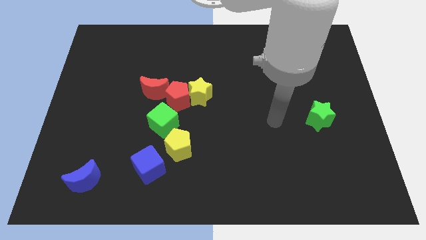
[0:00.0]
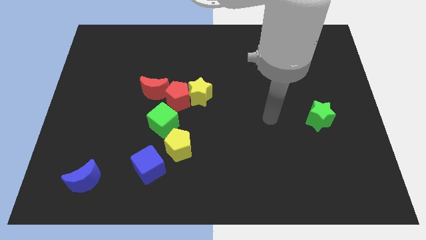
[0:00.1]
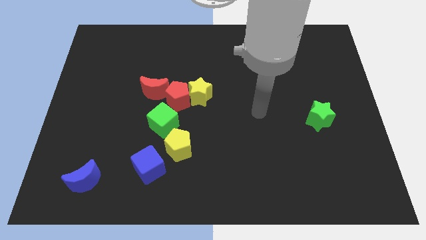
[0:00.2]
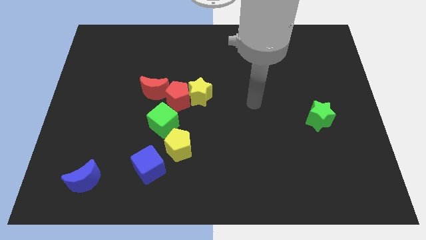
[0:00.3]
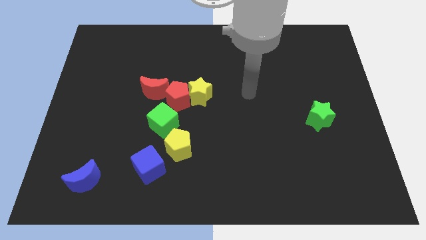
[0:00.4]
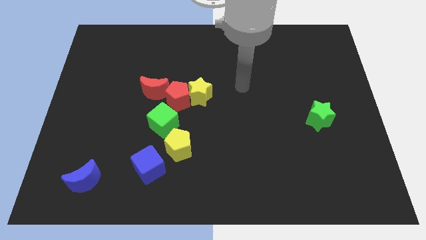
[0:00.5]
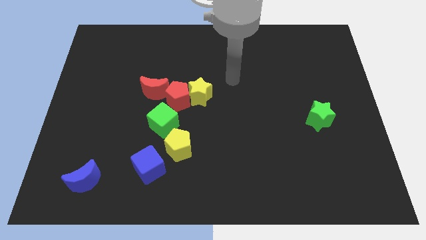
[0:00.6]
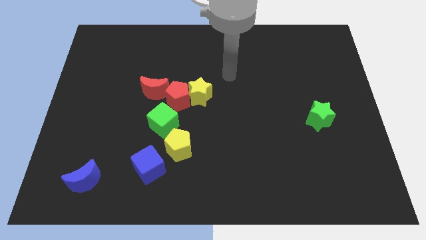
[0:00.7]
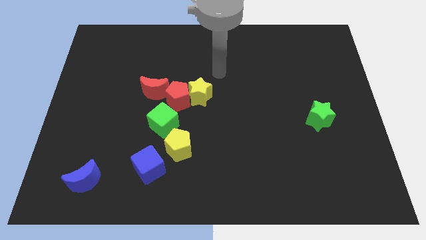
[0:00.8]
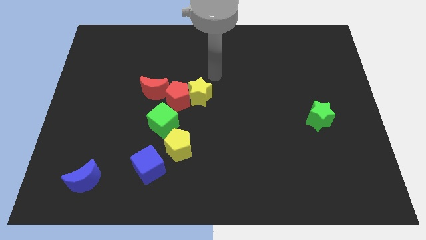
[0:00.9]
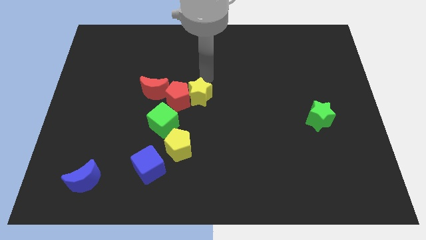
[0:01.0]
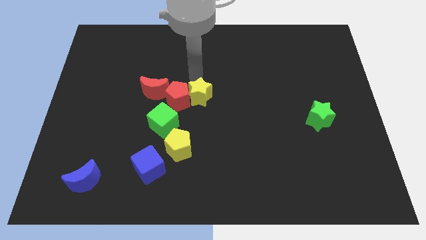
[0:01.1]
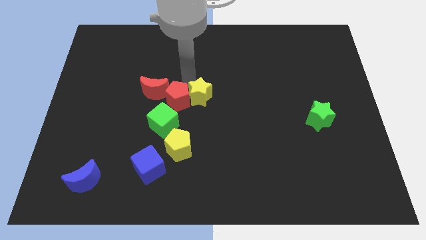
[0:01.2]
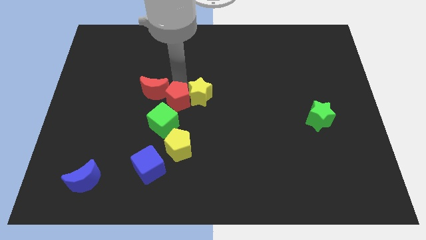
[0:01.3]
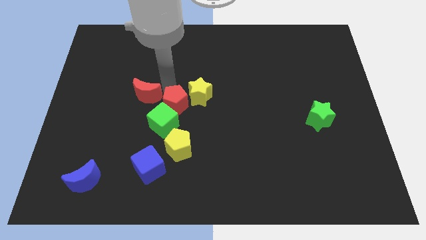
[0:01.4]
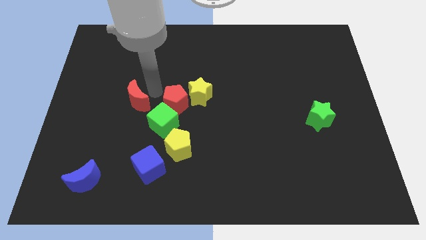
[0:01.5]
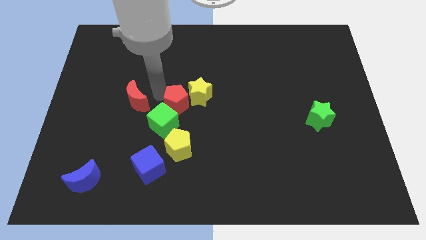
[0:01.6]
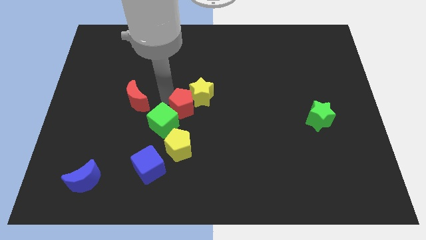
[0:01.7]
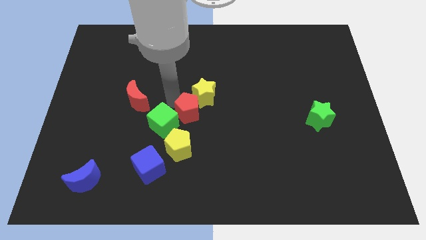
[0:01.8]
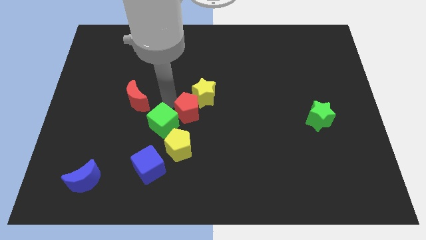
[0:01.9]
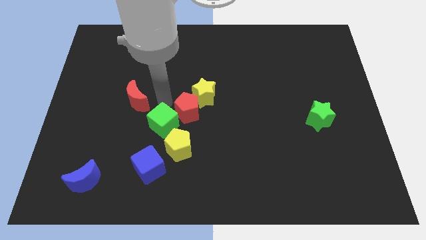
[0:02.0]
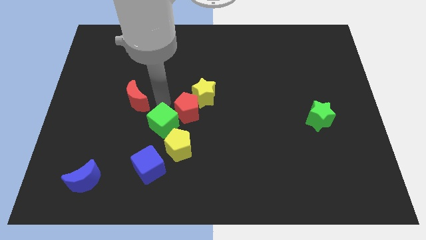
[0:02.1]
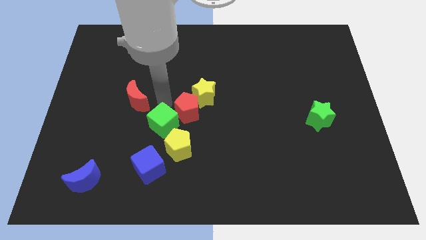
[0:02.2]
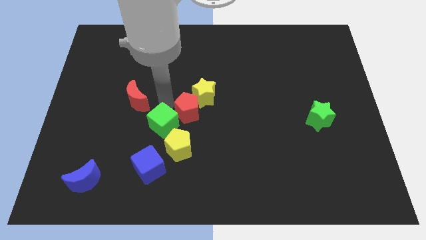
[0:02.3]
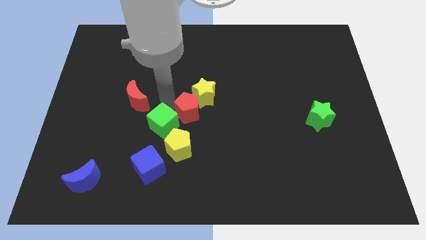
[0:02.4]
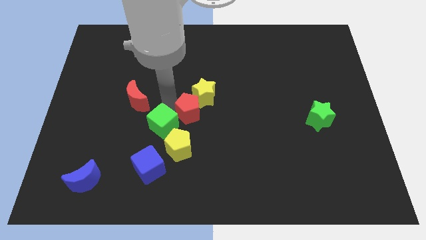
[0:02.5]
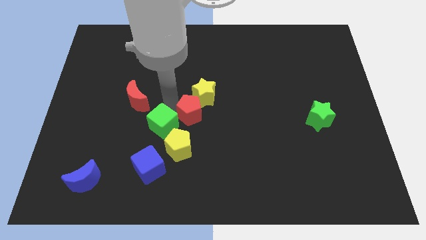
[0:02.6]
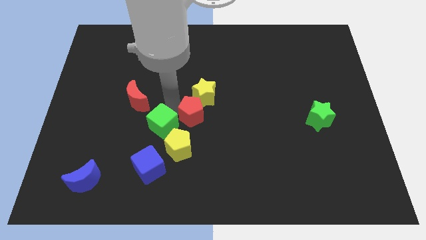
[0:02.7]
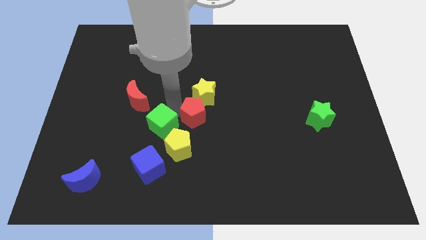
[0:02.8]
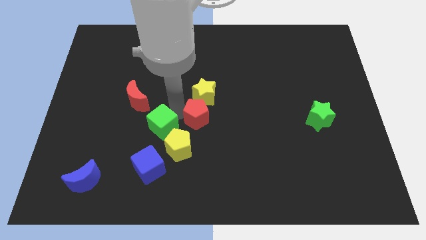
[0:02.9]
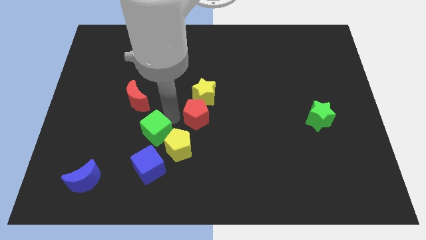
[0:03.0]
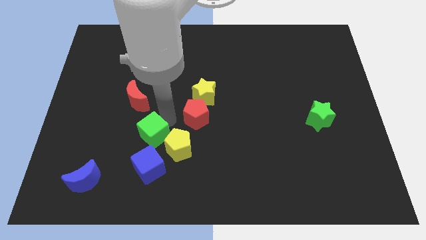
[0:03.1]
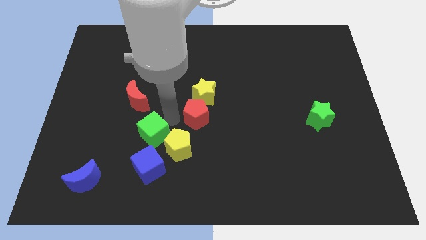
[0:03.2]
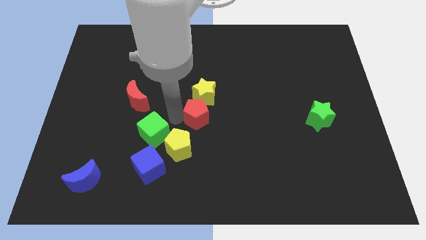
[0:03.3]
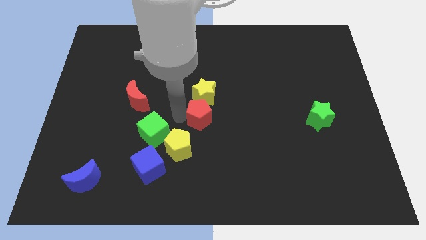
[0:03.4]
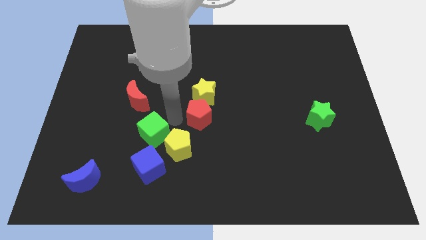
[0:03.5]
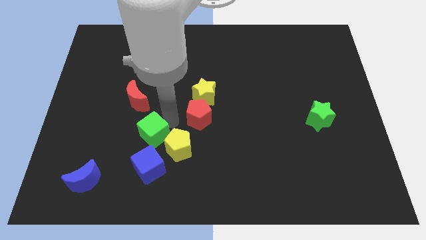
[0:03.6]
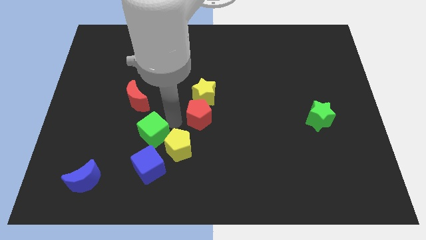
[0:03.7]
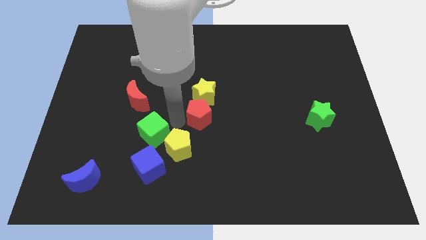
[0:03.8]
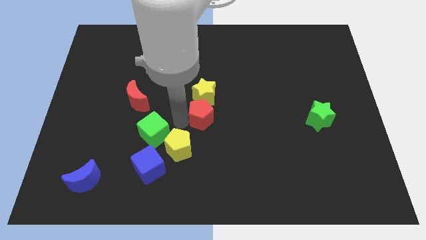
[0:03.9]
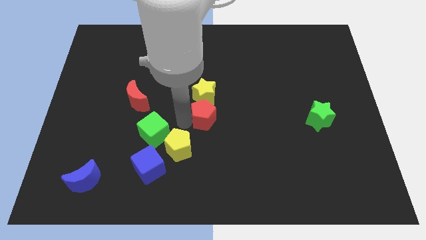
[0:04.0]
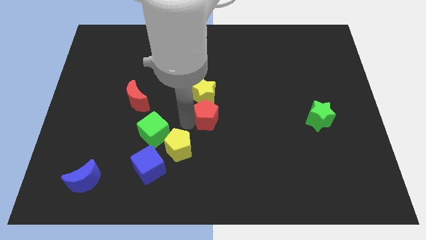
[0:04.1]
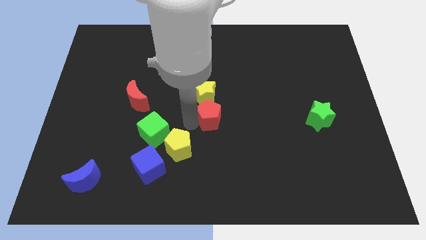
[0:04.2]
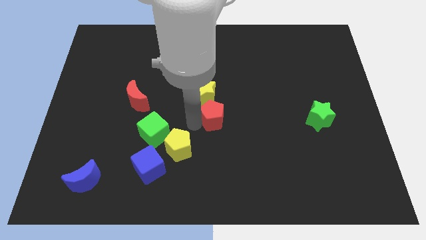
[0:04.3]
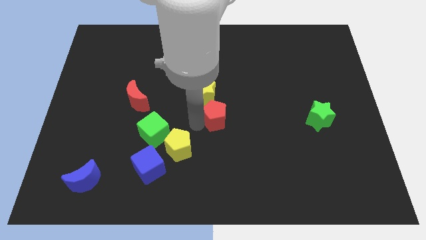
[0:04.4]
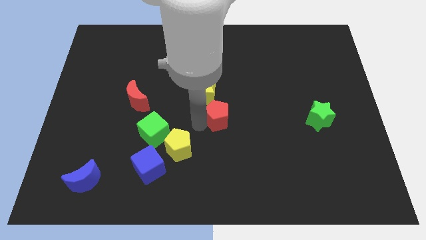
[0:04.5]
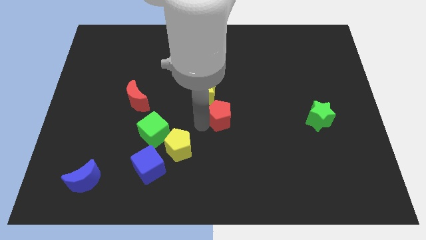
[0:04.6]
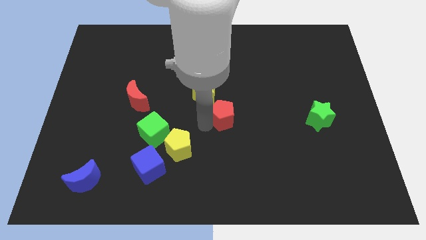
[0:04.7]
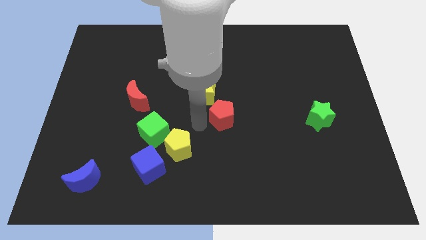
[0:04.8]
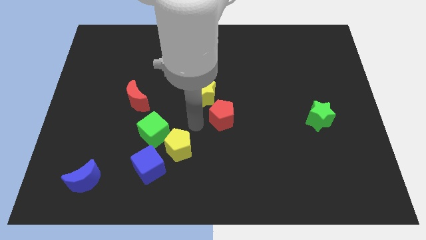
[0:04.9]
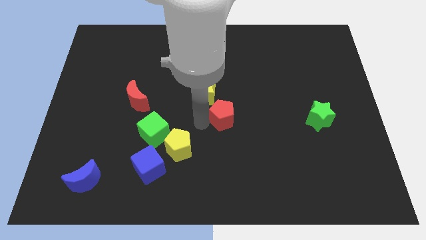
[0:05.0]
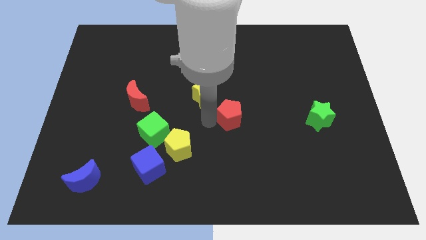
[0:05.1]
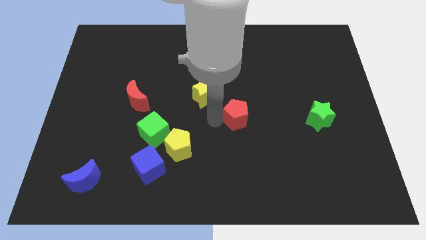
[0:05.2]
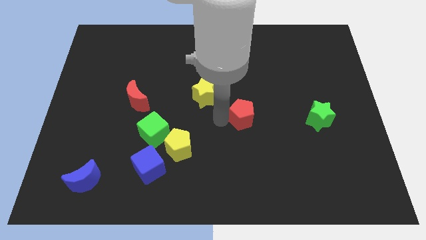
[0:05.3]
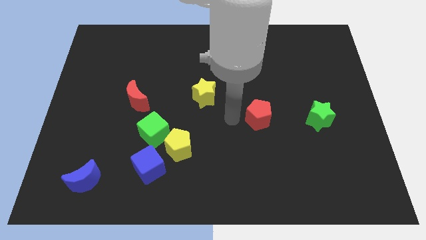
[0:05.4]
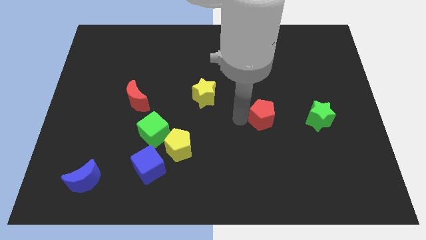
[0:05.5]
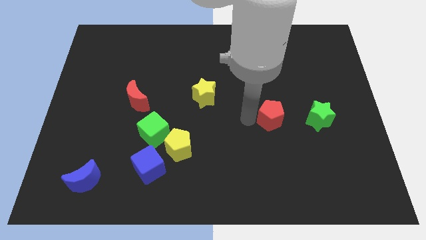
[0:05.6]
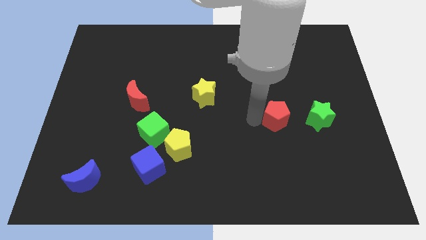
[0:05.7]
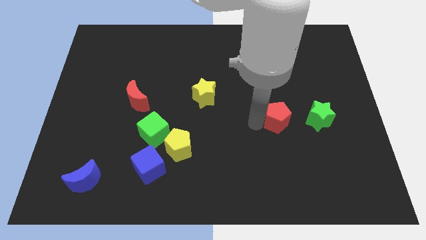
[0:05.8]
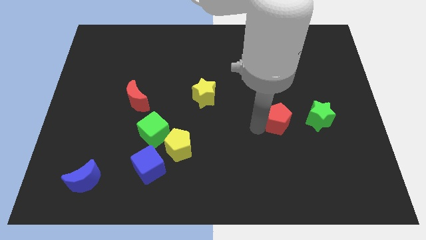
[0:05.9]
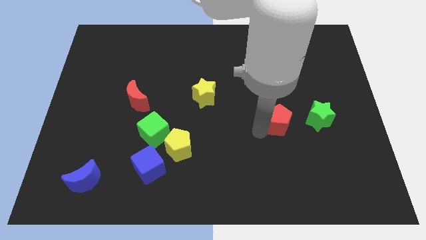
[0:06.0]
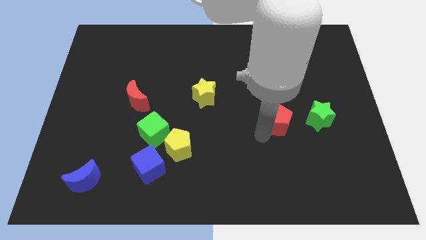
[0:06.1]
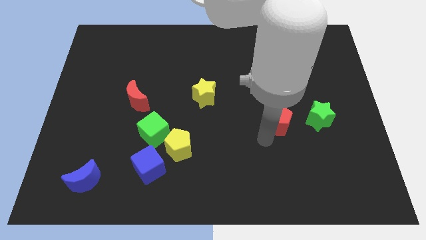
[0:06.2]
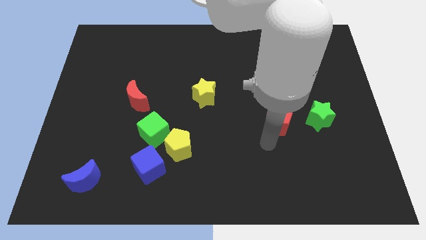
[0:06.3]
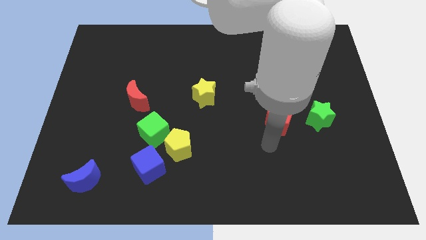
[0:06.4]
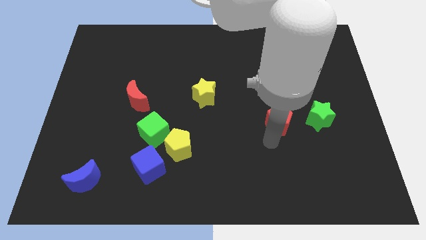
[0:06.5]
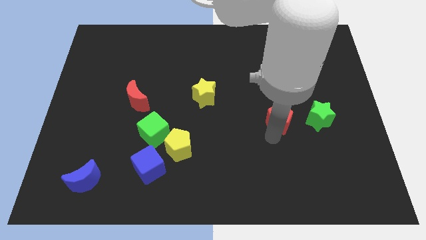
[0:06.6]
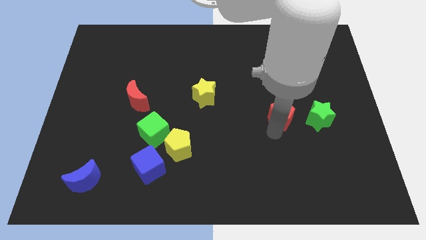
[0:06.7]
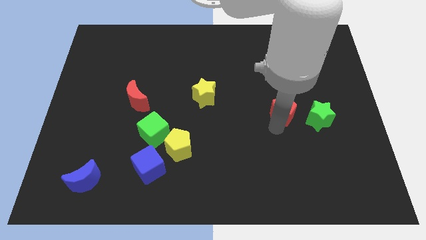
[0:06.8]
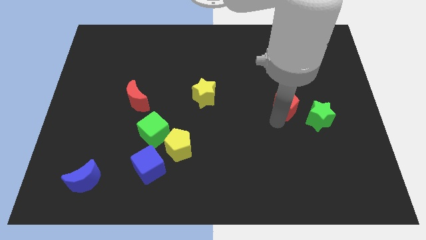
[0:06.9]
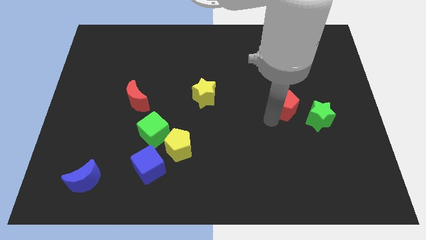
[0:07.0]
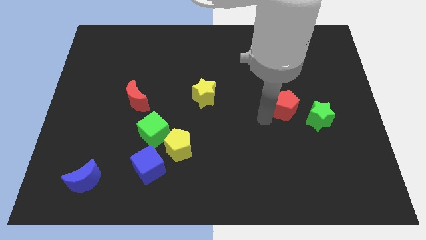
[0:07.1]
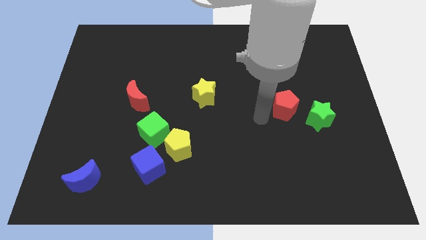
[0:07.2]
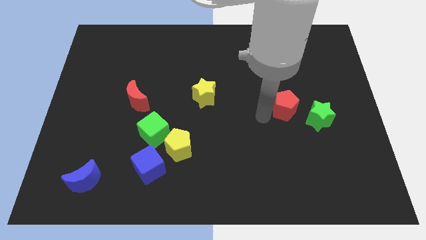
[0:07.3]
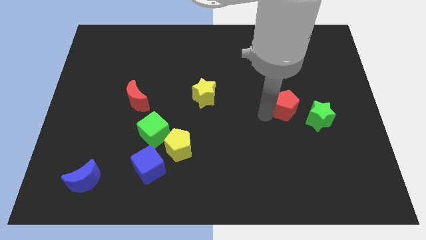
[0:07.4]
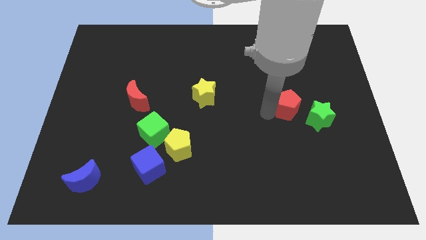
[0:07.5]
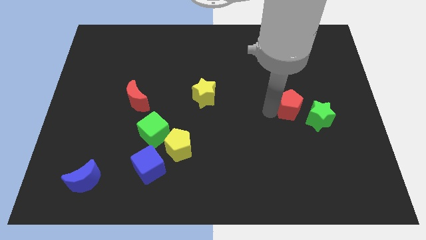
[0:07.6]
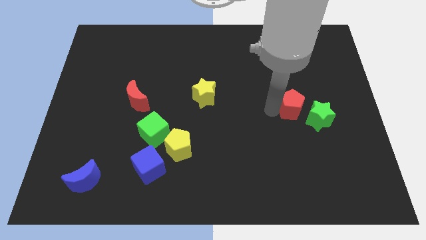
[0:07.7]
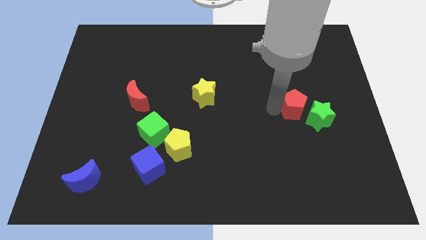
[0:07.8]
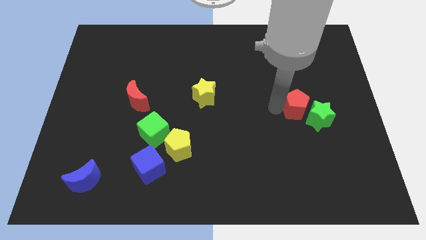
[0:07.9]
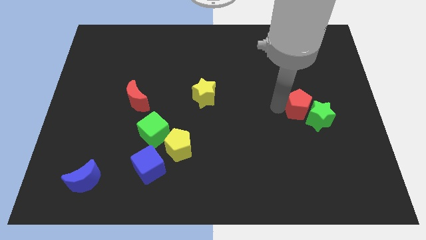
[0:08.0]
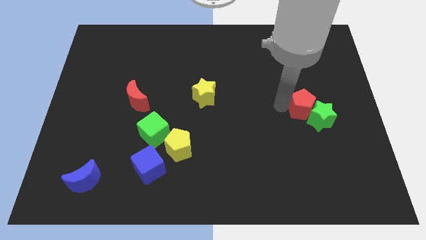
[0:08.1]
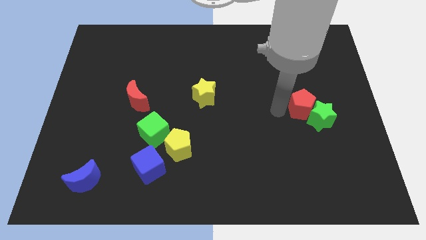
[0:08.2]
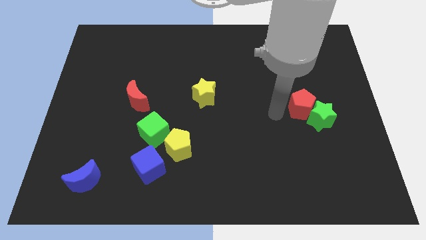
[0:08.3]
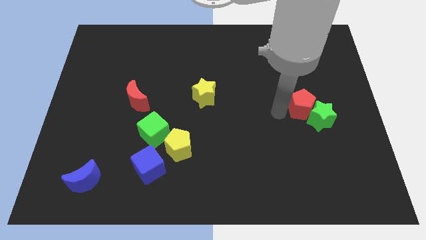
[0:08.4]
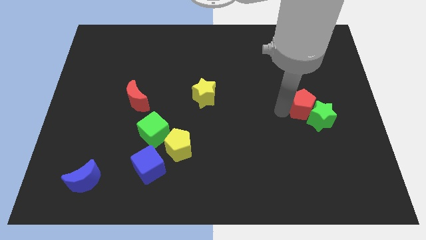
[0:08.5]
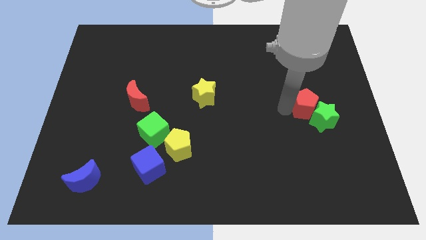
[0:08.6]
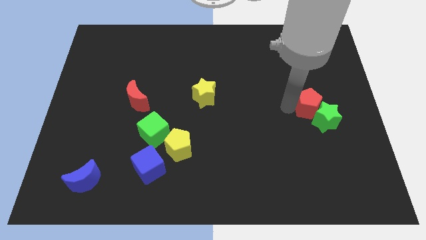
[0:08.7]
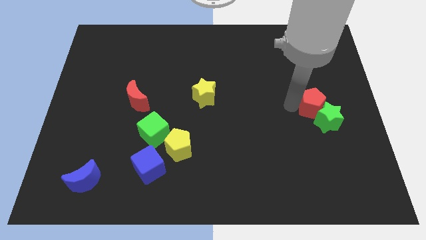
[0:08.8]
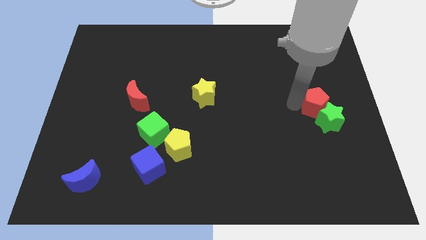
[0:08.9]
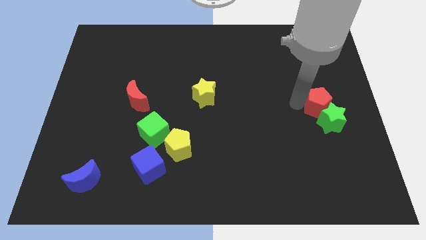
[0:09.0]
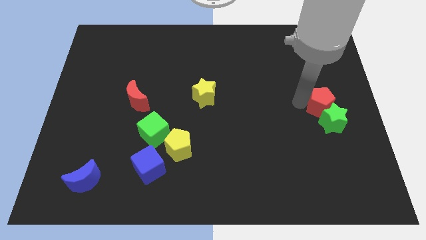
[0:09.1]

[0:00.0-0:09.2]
move the red pentagon to the center right
